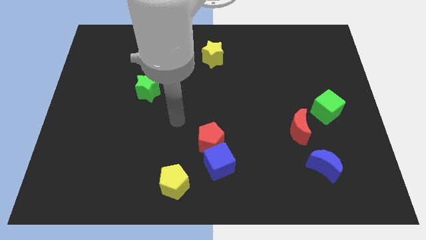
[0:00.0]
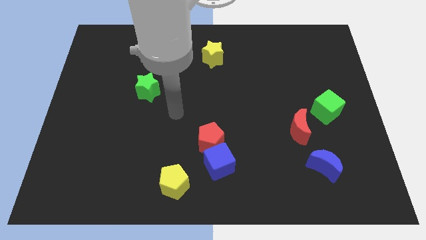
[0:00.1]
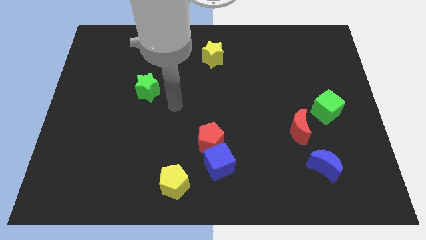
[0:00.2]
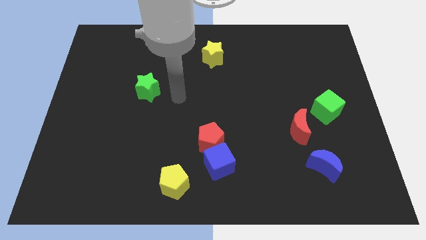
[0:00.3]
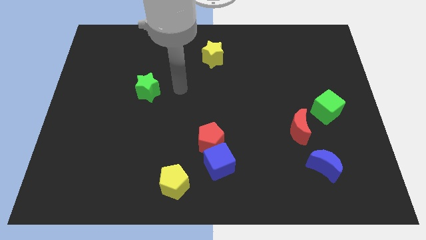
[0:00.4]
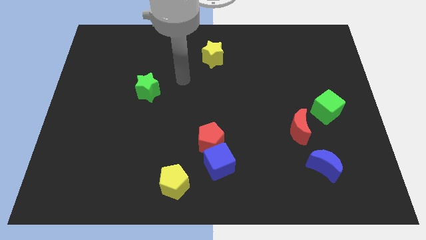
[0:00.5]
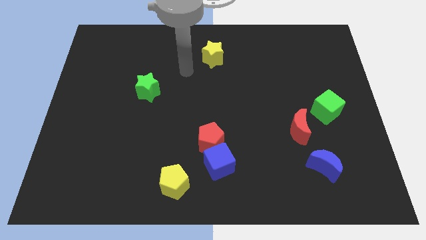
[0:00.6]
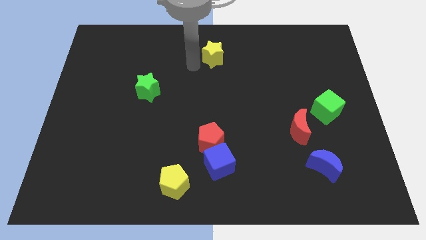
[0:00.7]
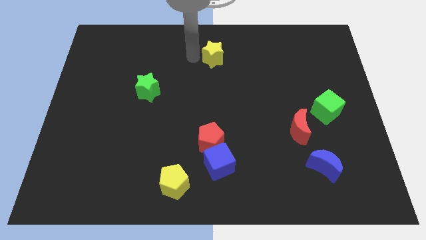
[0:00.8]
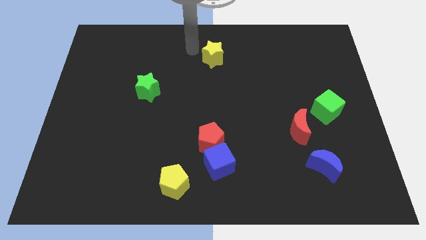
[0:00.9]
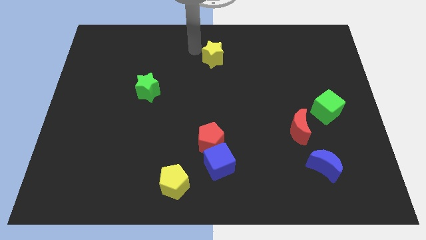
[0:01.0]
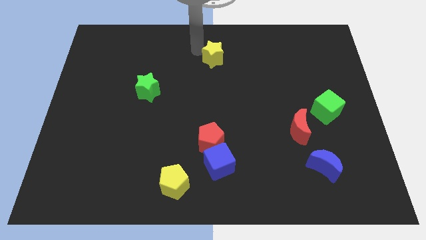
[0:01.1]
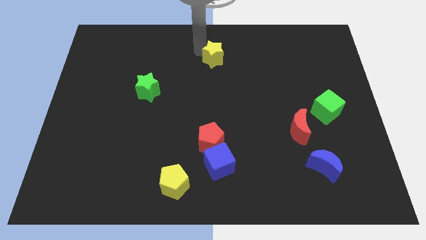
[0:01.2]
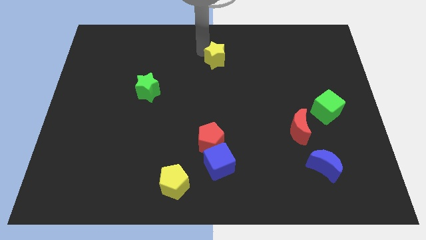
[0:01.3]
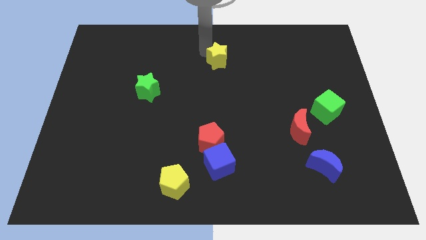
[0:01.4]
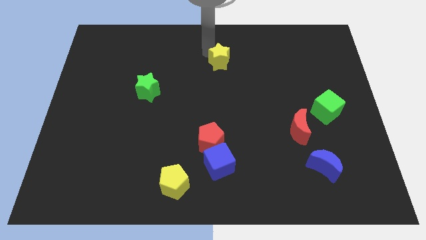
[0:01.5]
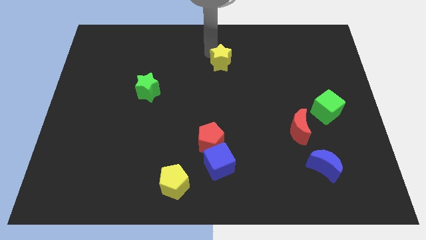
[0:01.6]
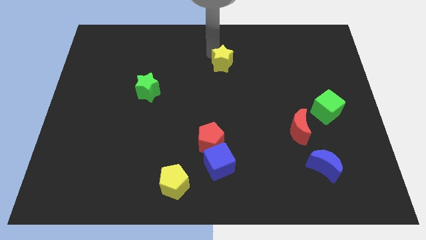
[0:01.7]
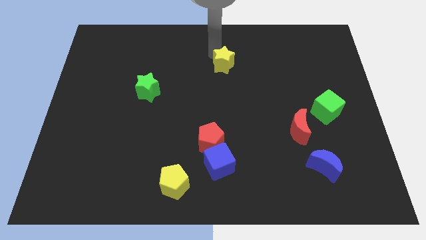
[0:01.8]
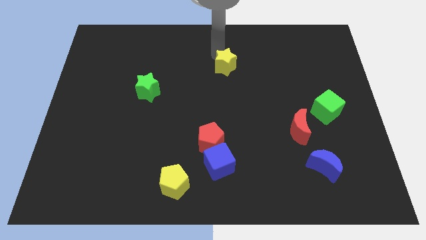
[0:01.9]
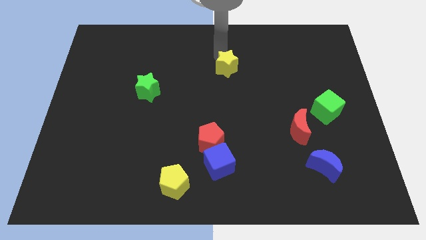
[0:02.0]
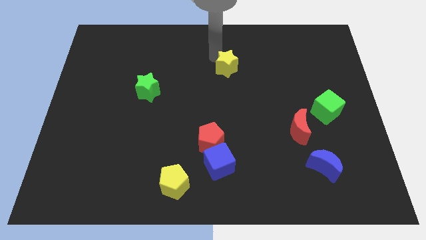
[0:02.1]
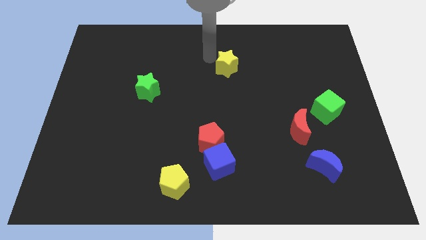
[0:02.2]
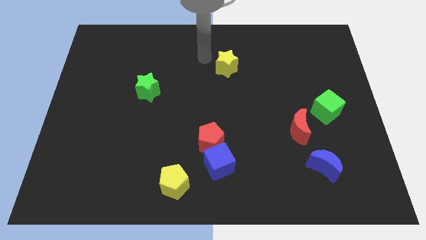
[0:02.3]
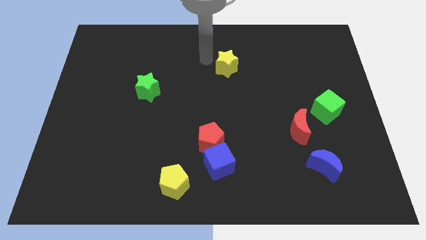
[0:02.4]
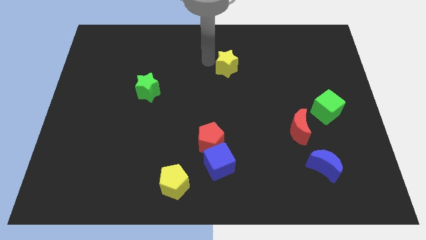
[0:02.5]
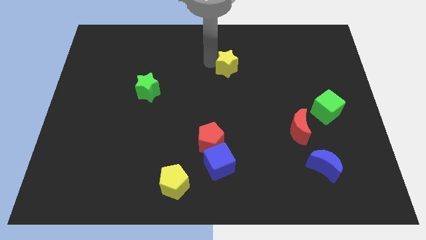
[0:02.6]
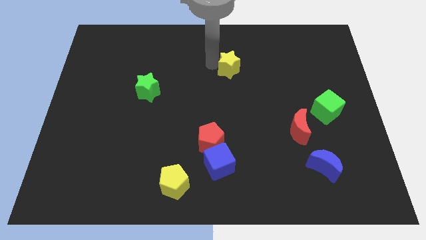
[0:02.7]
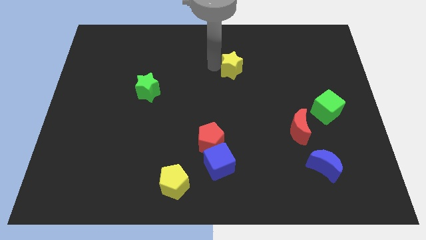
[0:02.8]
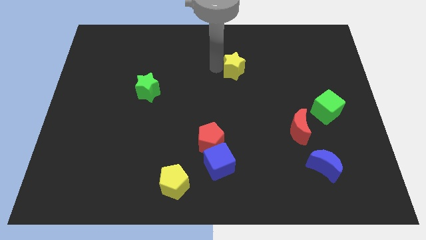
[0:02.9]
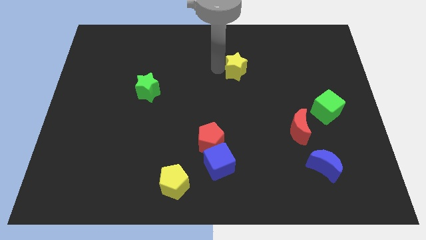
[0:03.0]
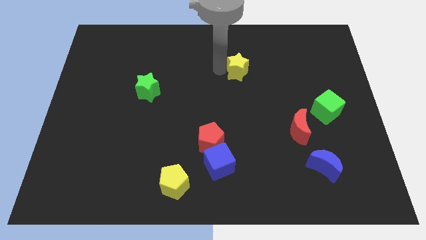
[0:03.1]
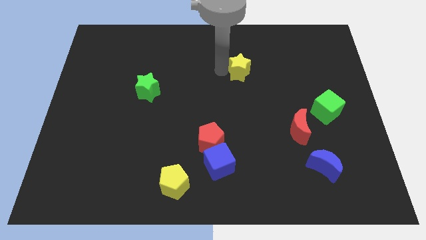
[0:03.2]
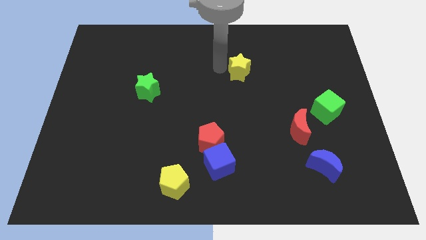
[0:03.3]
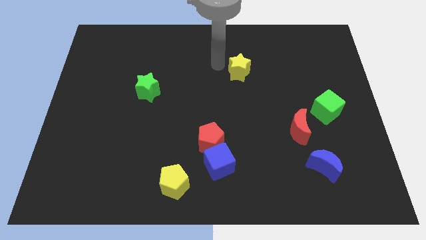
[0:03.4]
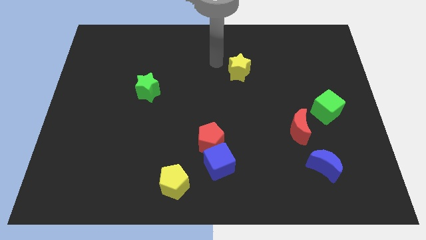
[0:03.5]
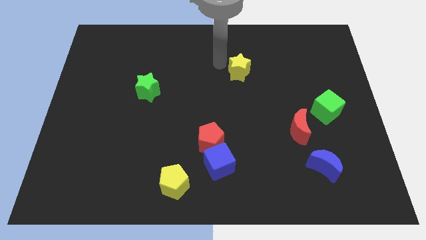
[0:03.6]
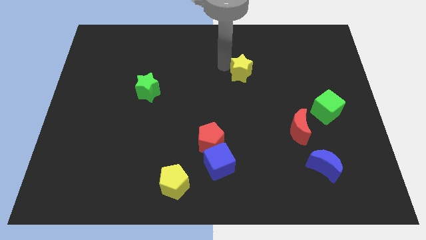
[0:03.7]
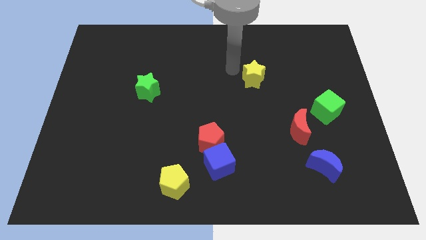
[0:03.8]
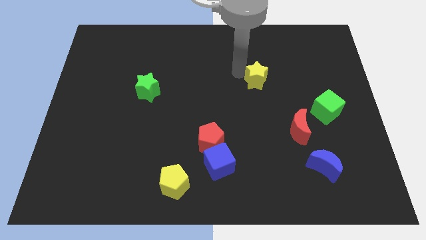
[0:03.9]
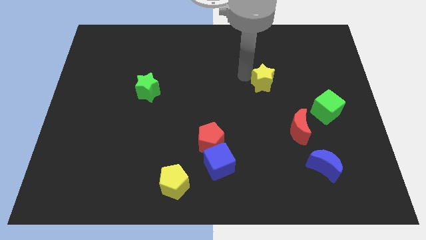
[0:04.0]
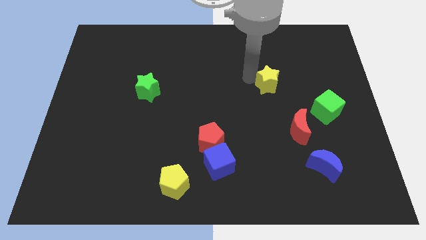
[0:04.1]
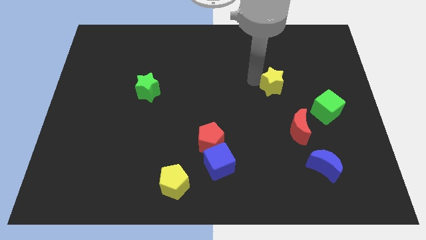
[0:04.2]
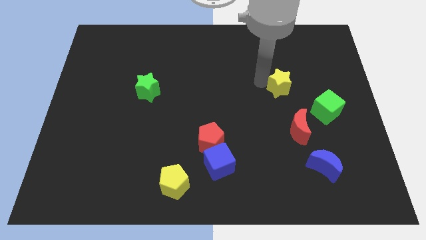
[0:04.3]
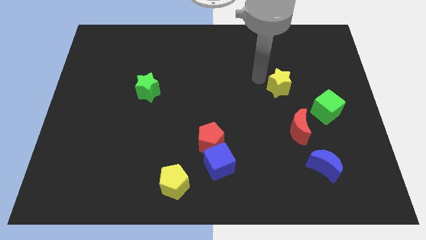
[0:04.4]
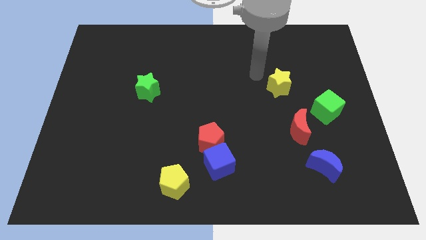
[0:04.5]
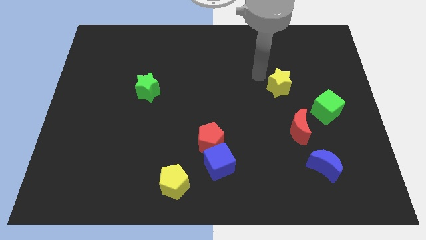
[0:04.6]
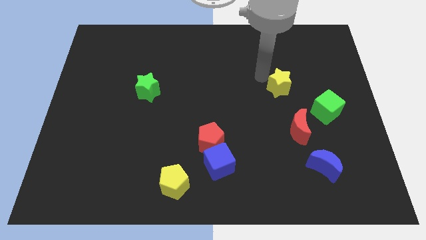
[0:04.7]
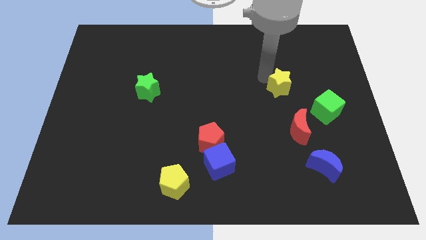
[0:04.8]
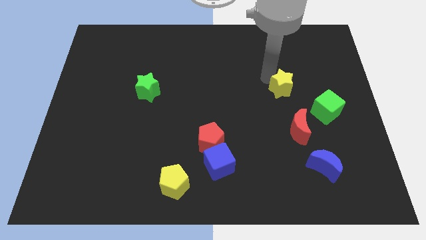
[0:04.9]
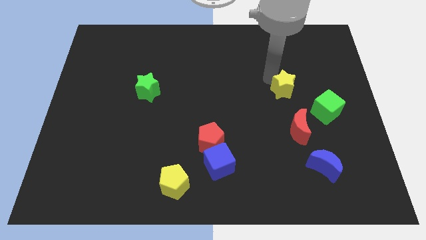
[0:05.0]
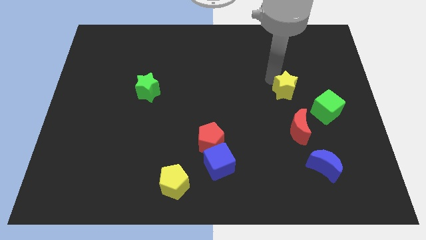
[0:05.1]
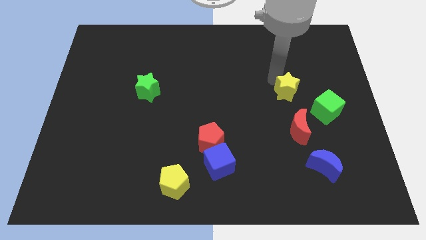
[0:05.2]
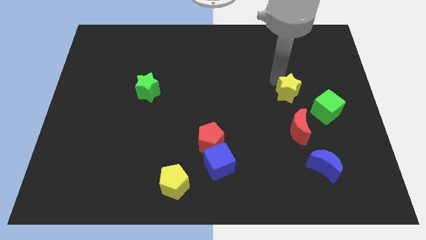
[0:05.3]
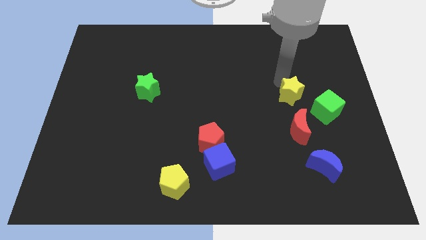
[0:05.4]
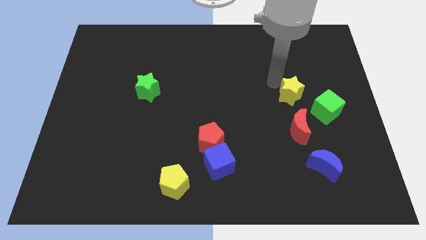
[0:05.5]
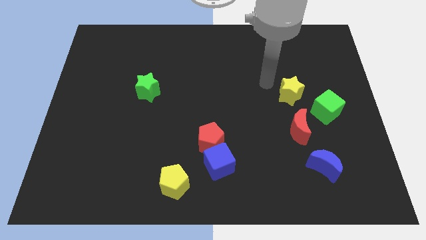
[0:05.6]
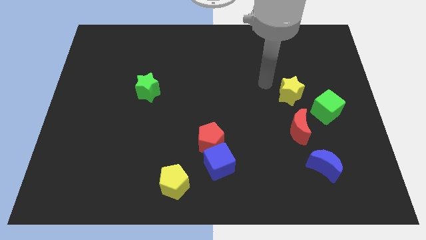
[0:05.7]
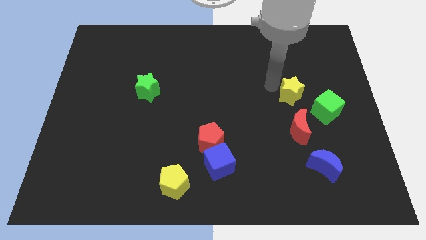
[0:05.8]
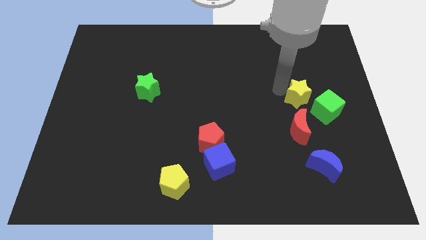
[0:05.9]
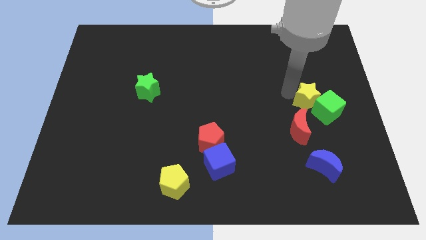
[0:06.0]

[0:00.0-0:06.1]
slide the yellow star to the green cube

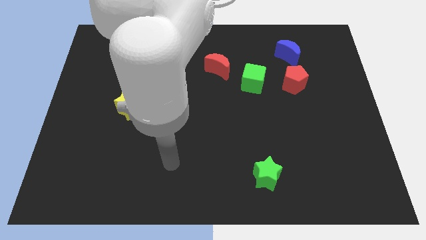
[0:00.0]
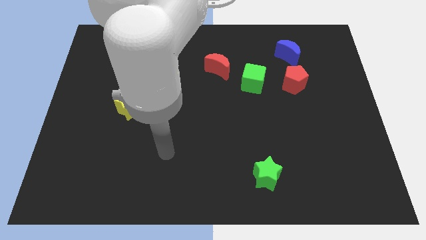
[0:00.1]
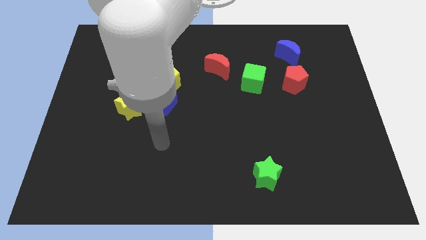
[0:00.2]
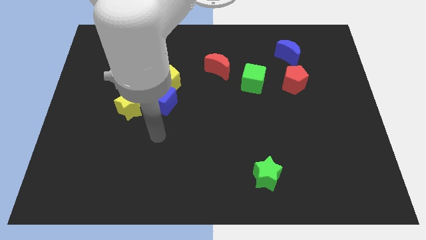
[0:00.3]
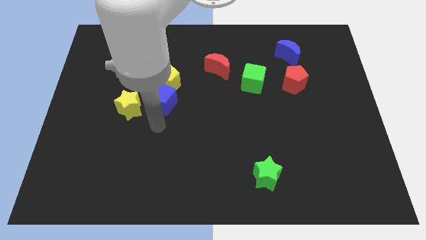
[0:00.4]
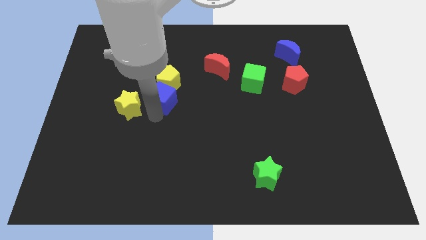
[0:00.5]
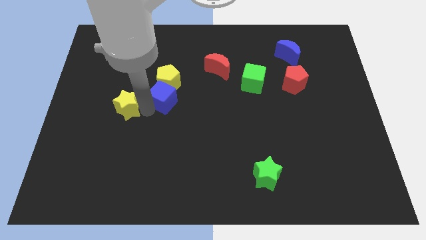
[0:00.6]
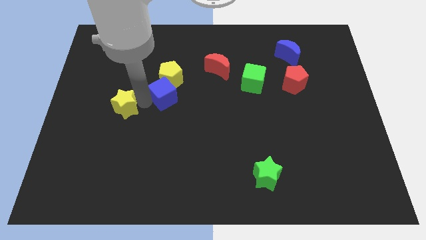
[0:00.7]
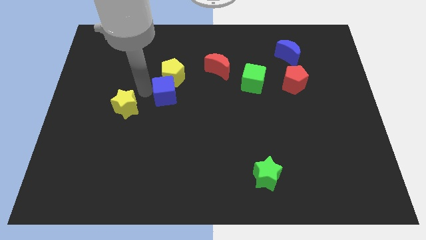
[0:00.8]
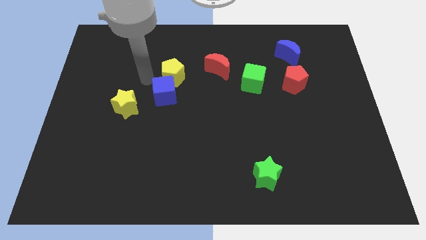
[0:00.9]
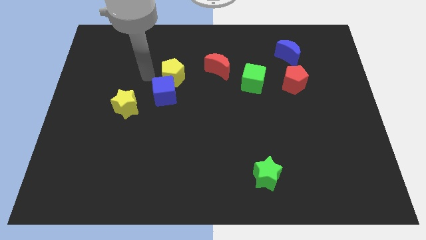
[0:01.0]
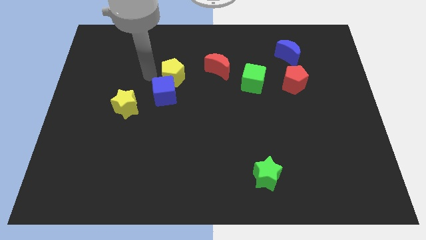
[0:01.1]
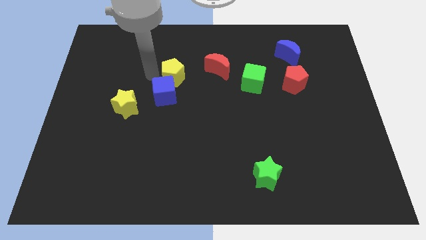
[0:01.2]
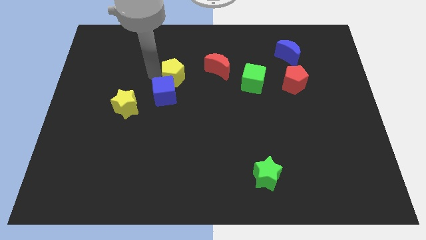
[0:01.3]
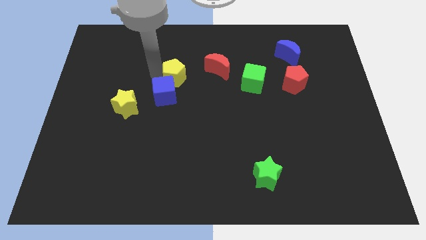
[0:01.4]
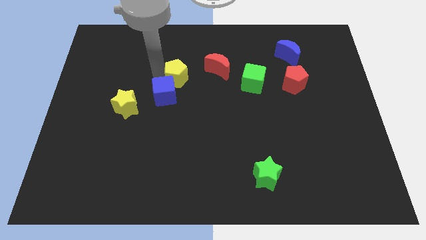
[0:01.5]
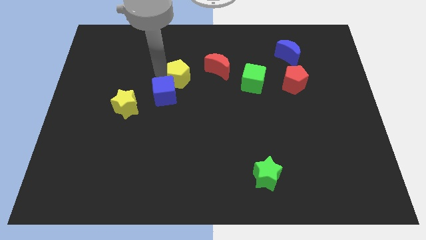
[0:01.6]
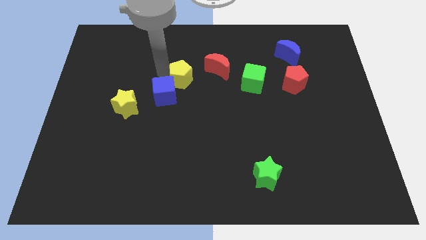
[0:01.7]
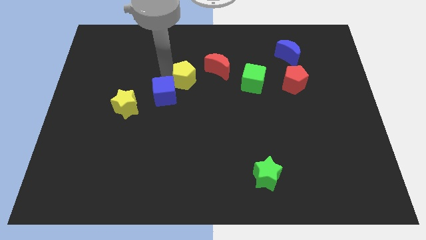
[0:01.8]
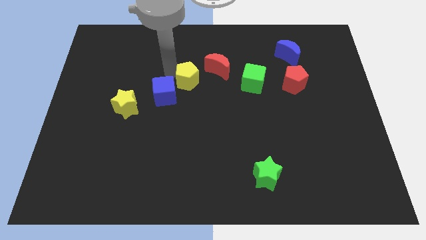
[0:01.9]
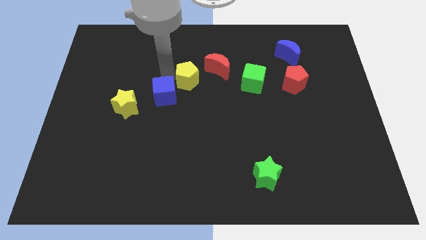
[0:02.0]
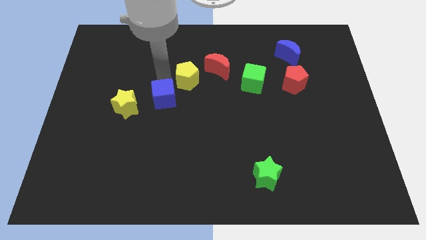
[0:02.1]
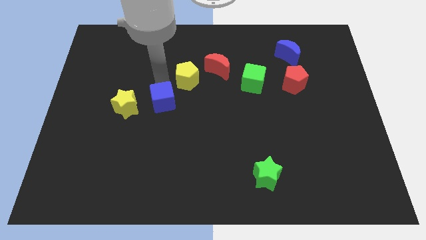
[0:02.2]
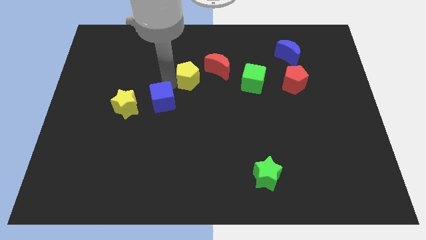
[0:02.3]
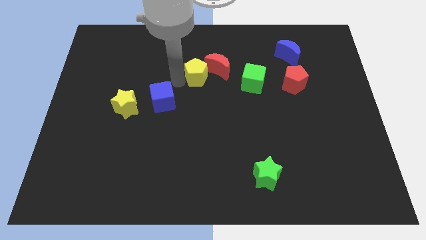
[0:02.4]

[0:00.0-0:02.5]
slide the yellow pentagon next to the red moon
